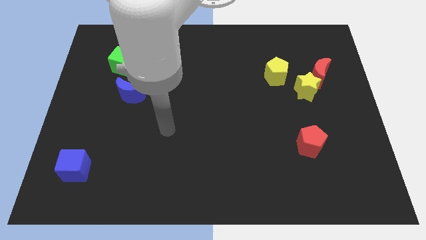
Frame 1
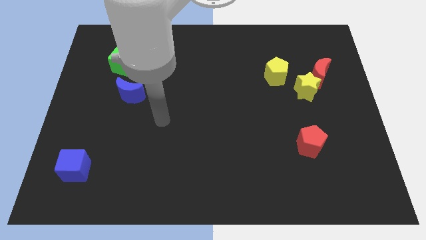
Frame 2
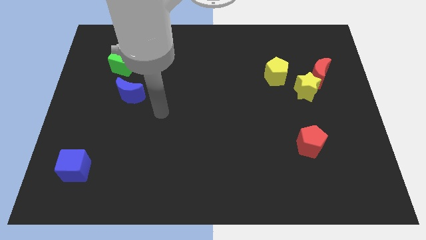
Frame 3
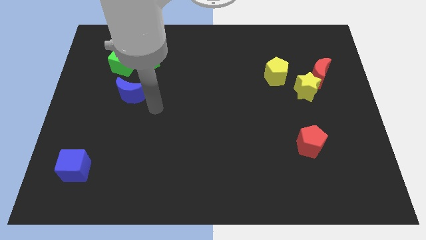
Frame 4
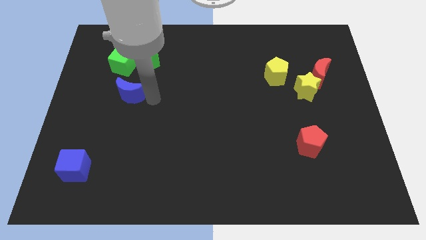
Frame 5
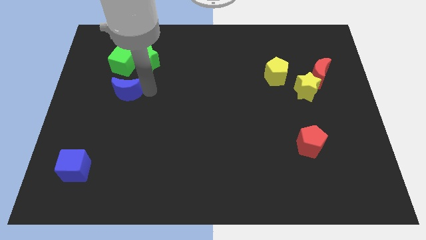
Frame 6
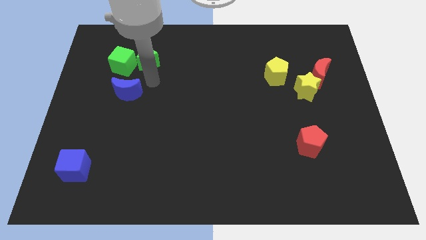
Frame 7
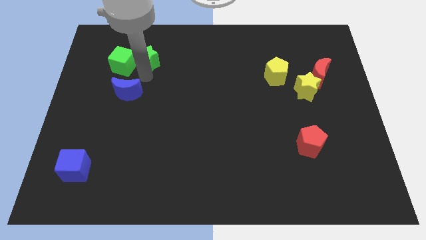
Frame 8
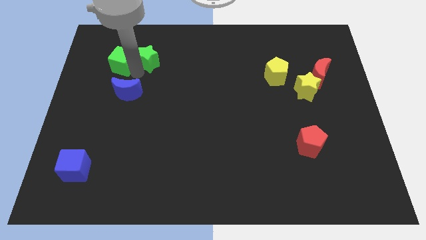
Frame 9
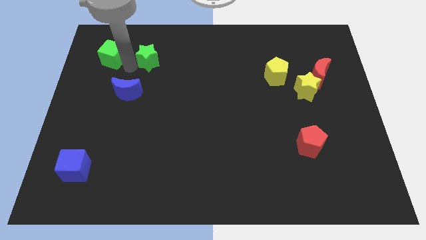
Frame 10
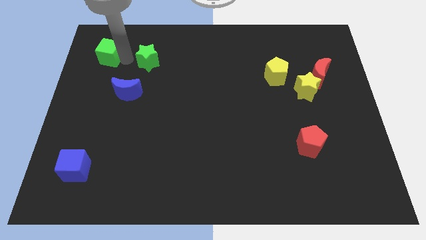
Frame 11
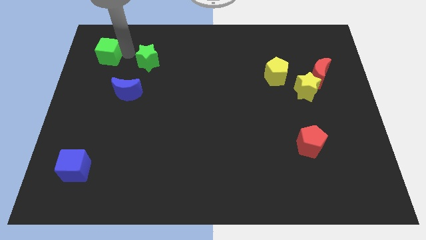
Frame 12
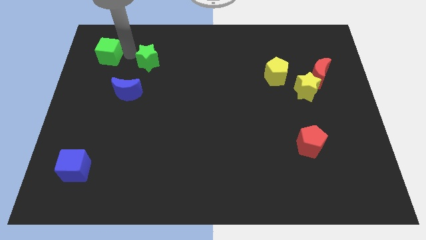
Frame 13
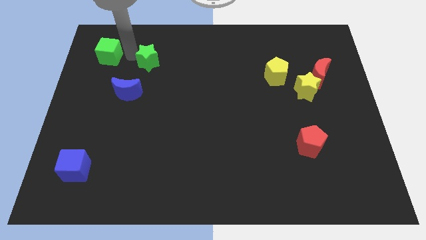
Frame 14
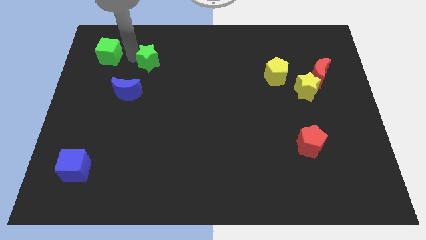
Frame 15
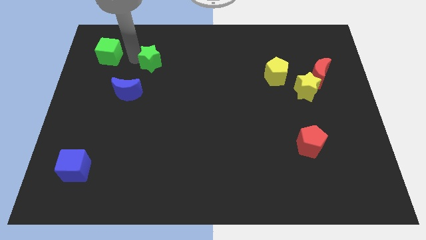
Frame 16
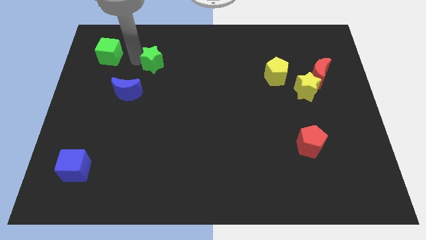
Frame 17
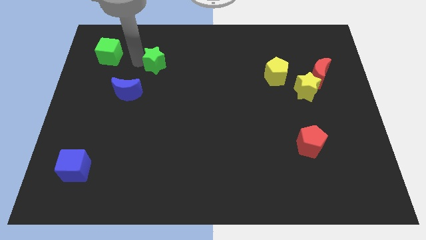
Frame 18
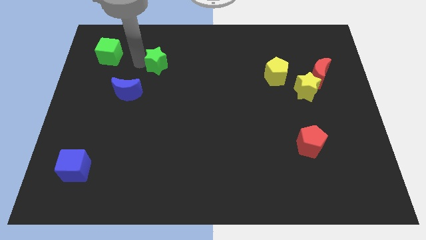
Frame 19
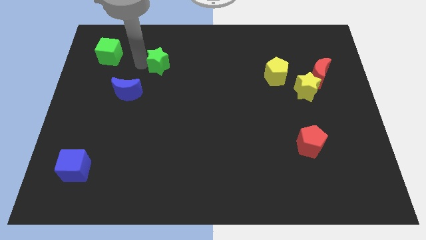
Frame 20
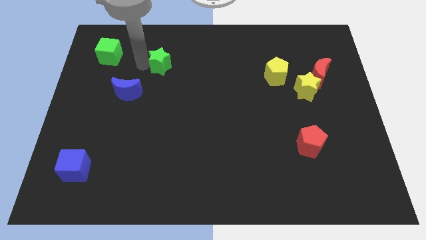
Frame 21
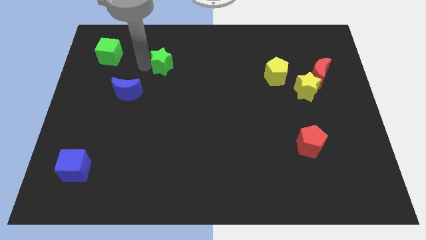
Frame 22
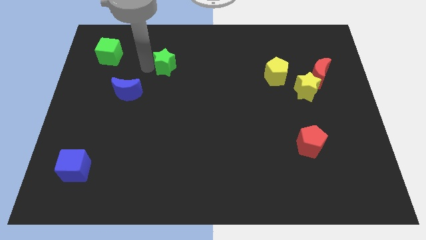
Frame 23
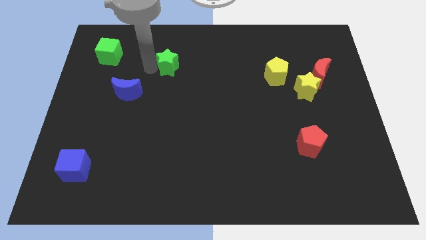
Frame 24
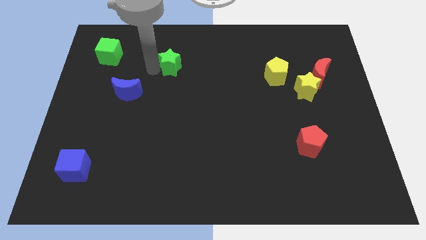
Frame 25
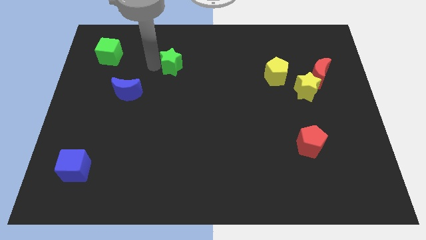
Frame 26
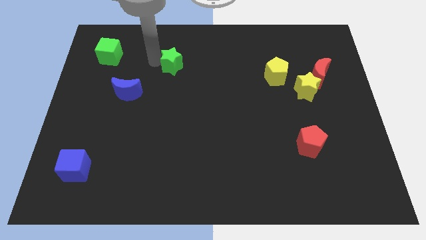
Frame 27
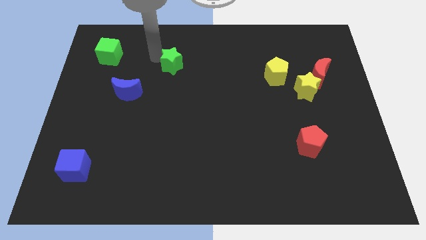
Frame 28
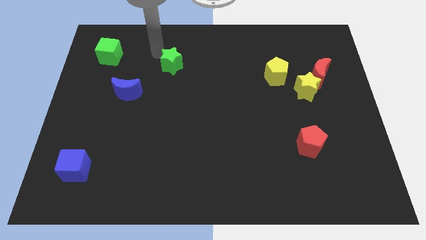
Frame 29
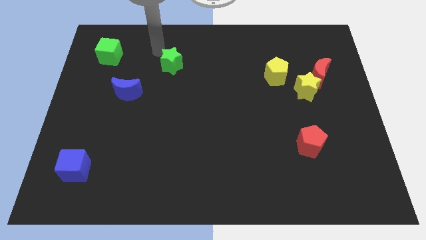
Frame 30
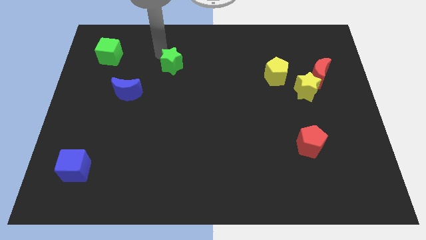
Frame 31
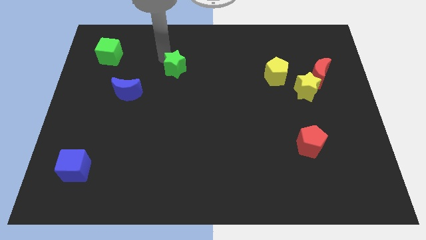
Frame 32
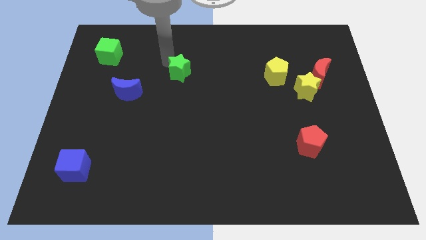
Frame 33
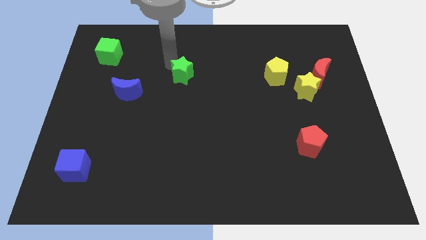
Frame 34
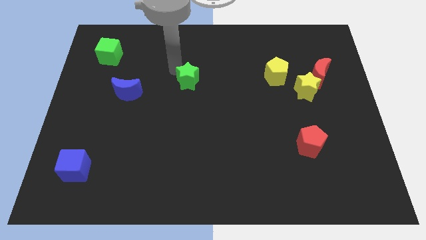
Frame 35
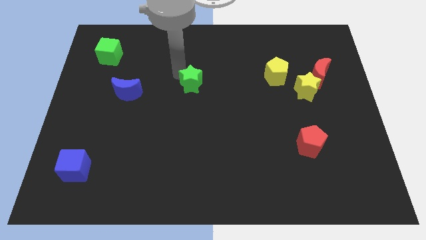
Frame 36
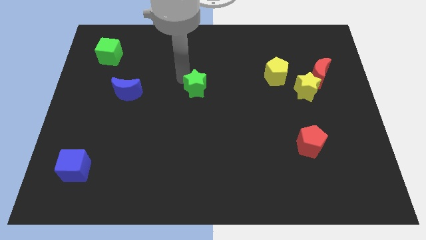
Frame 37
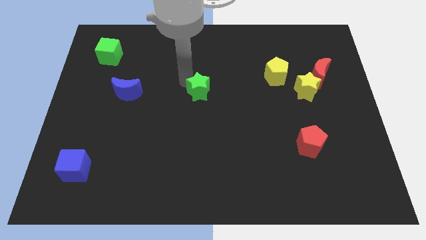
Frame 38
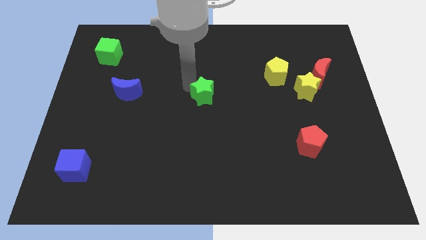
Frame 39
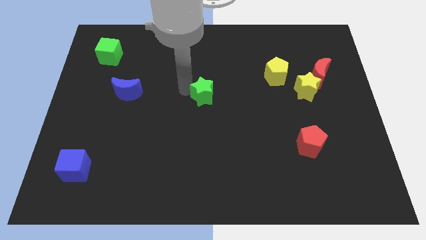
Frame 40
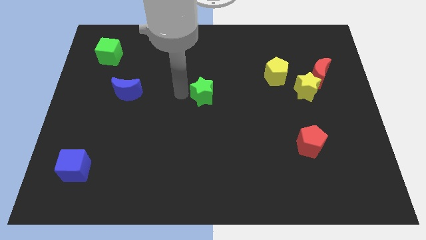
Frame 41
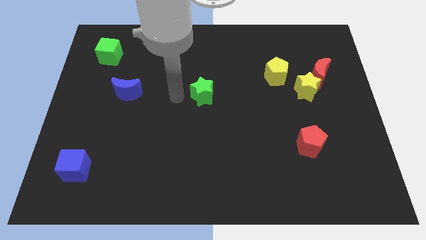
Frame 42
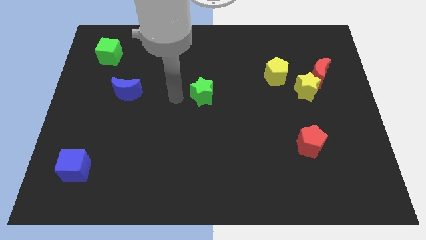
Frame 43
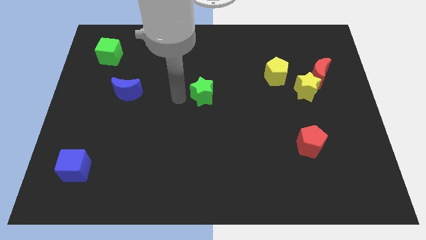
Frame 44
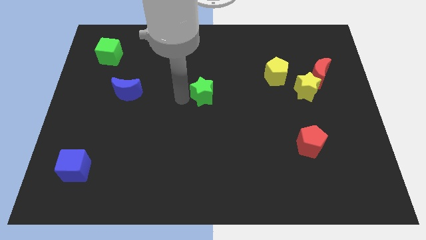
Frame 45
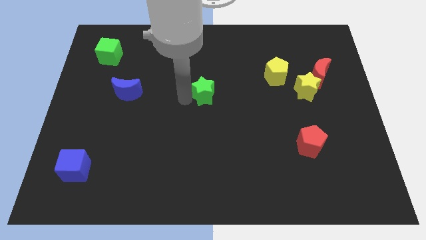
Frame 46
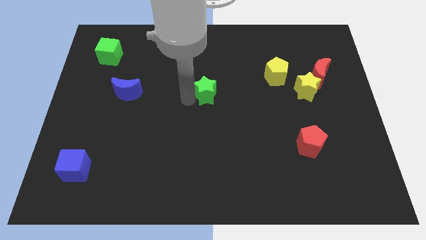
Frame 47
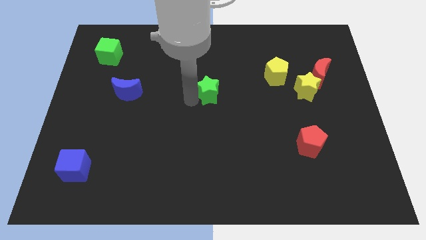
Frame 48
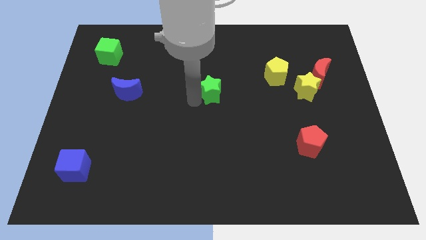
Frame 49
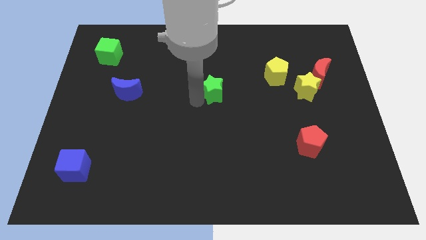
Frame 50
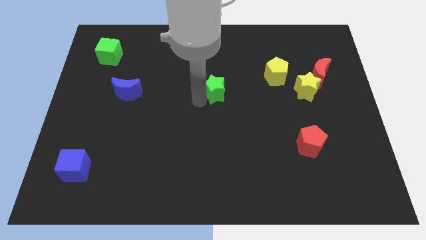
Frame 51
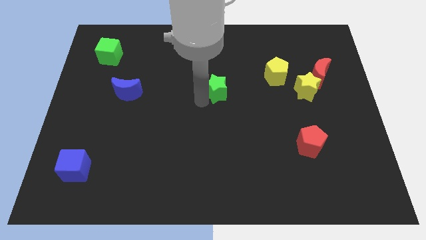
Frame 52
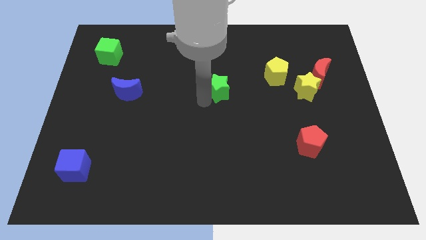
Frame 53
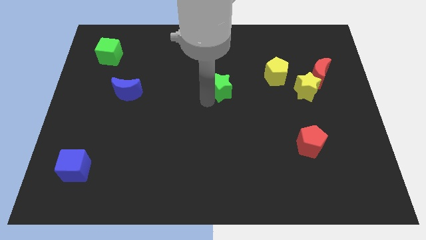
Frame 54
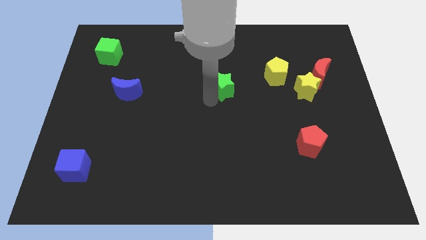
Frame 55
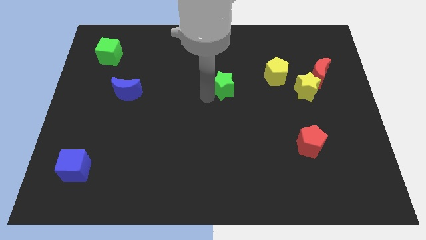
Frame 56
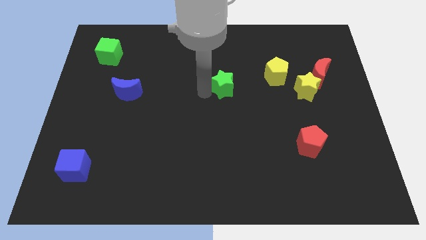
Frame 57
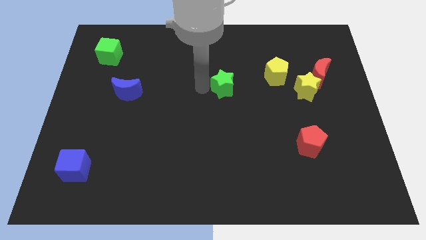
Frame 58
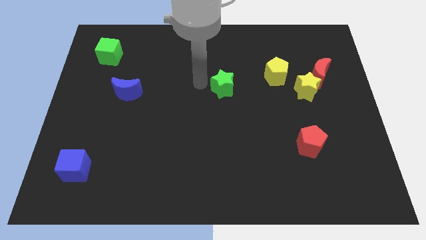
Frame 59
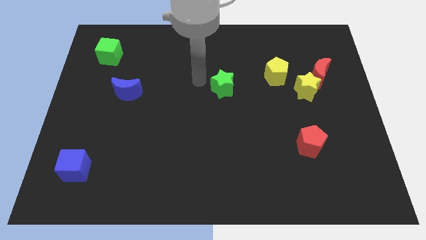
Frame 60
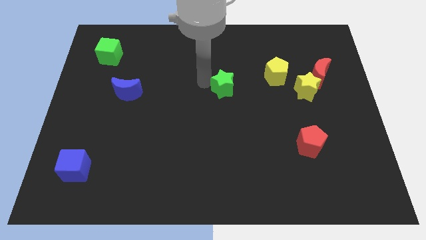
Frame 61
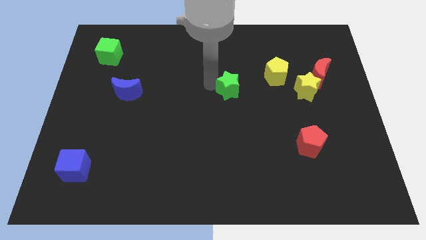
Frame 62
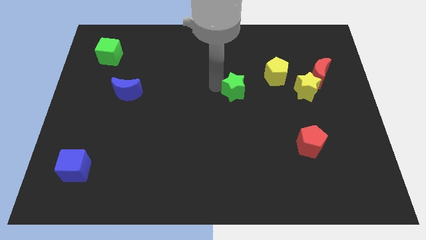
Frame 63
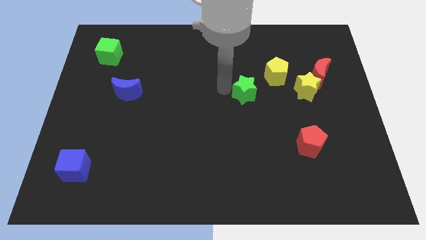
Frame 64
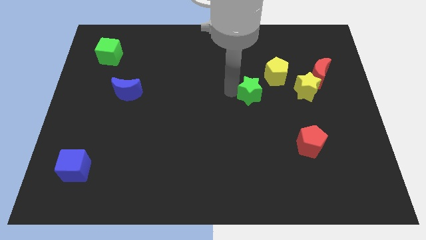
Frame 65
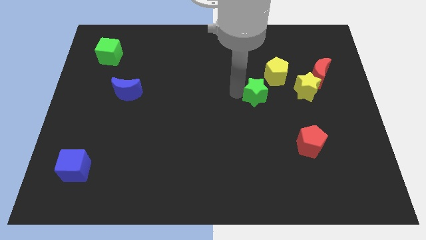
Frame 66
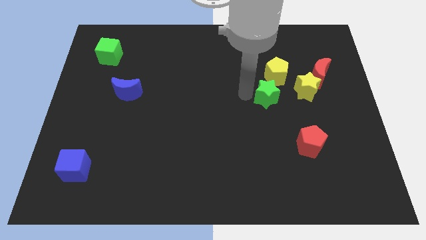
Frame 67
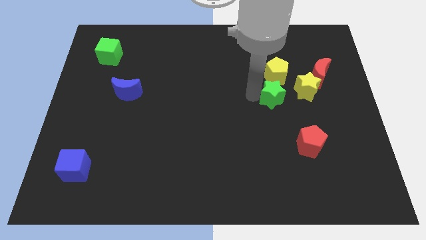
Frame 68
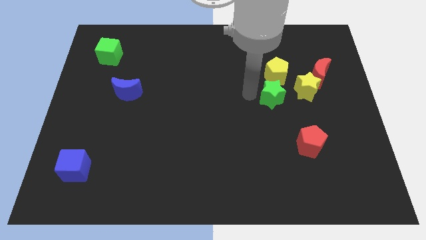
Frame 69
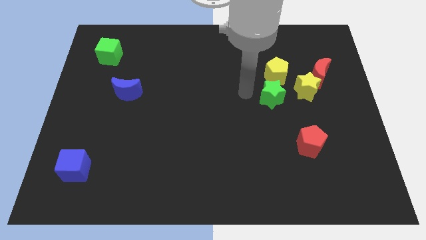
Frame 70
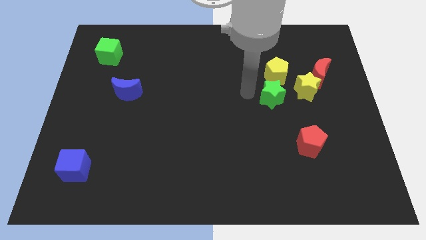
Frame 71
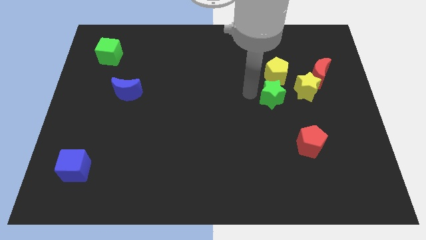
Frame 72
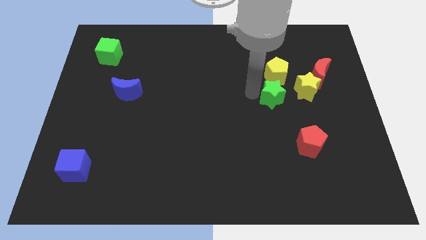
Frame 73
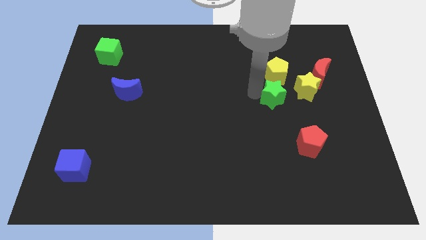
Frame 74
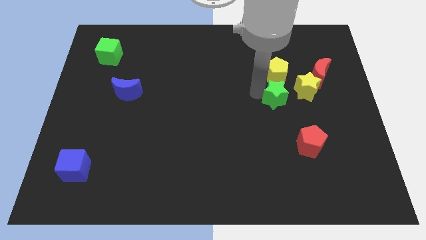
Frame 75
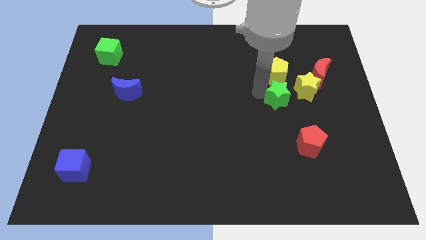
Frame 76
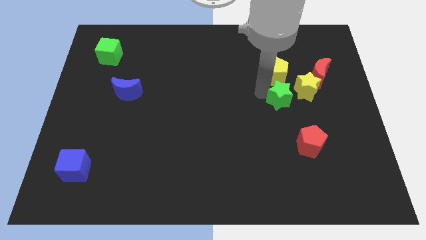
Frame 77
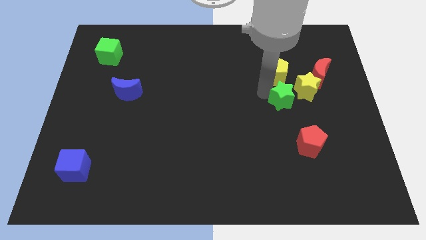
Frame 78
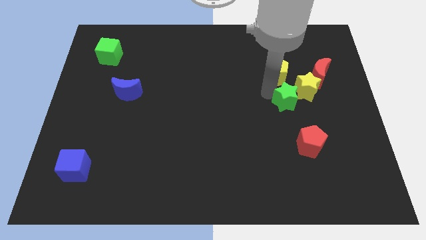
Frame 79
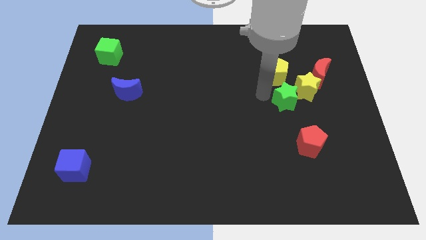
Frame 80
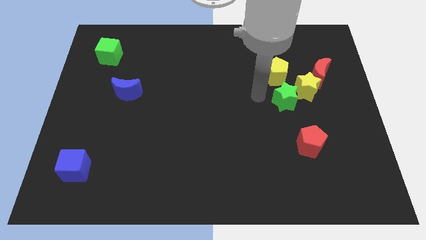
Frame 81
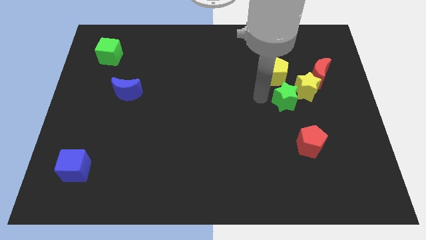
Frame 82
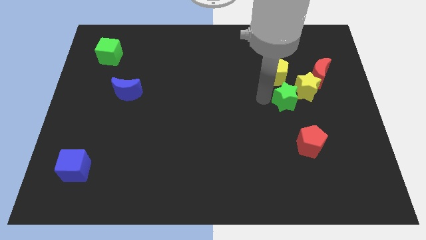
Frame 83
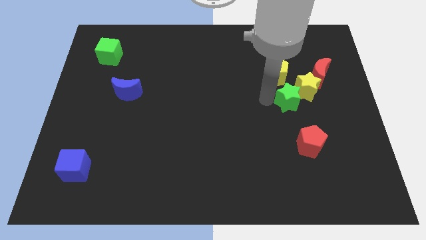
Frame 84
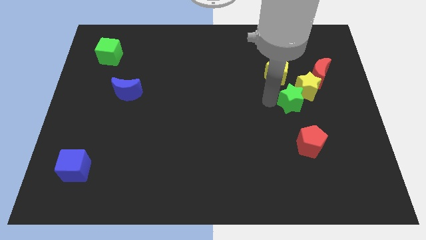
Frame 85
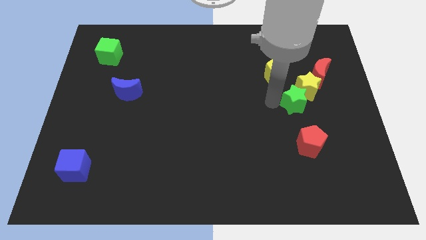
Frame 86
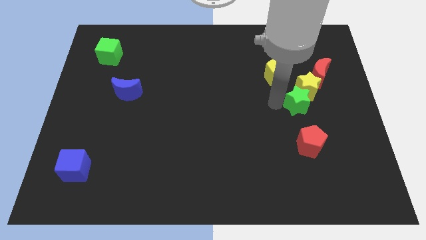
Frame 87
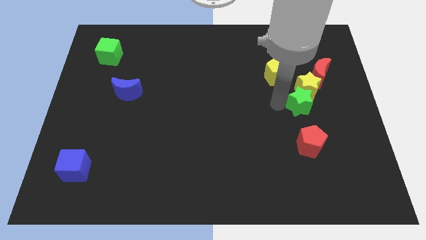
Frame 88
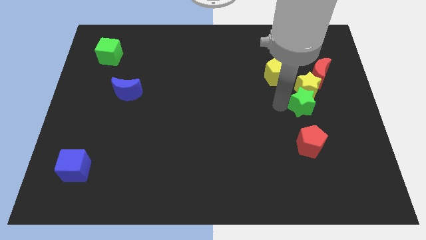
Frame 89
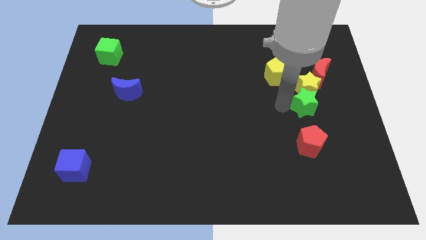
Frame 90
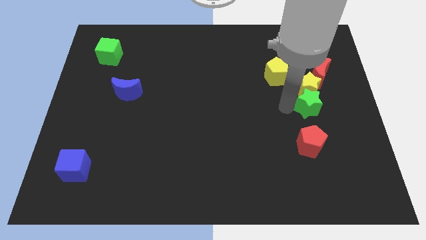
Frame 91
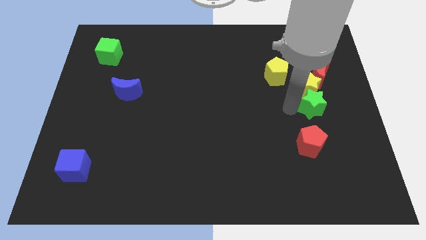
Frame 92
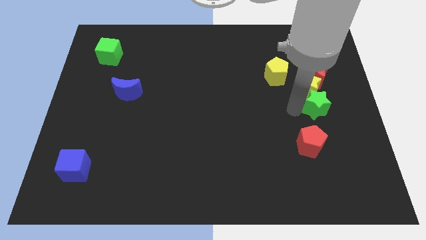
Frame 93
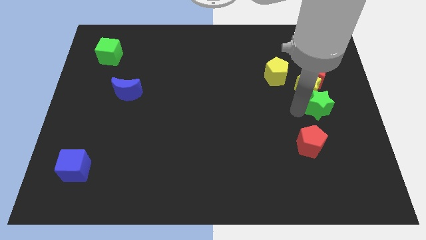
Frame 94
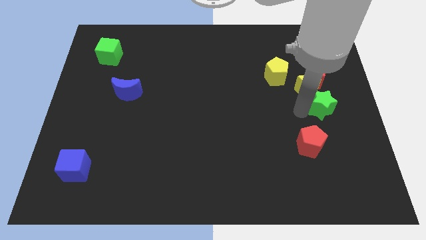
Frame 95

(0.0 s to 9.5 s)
push the green star to the right side of the board
